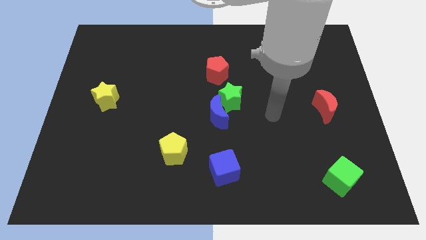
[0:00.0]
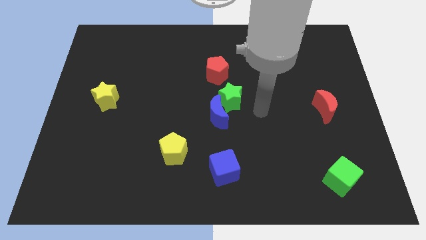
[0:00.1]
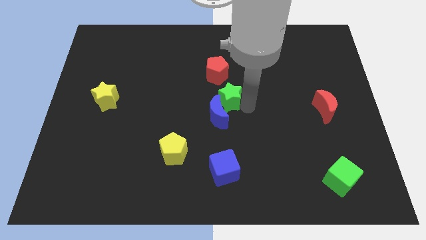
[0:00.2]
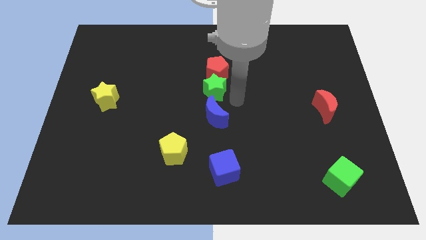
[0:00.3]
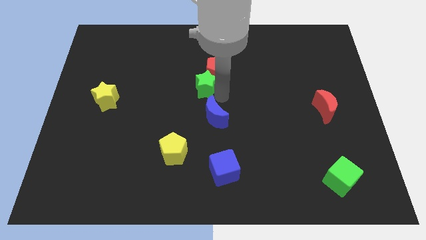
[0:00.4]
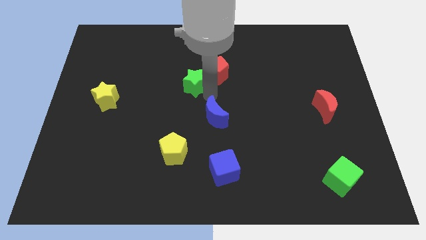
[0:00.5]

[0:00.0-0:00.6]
separate the blue moon from the green star

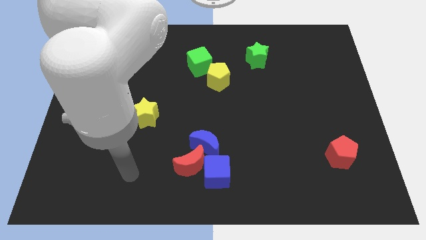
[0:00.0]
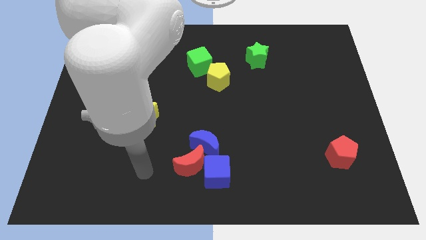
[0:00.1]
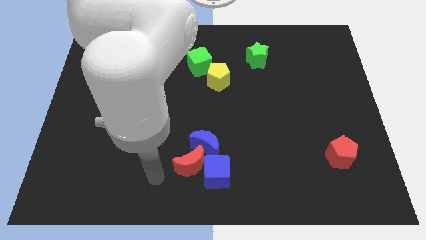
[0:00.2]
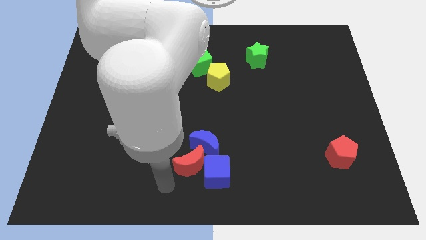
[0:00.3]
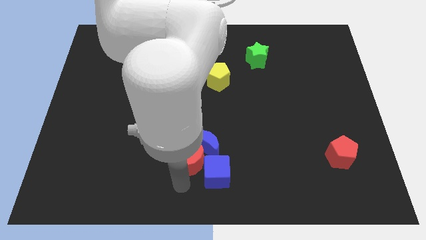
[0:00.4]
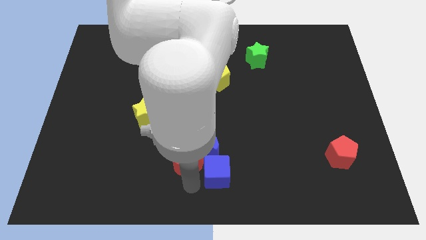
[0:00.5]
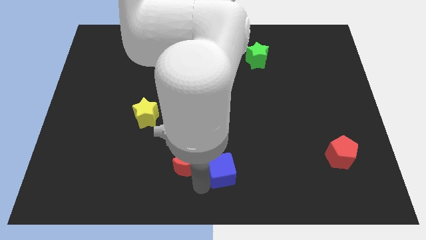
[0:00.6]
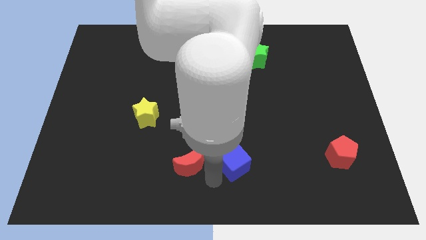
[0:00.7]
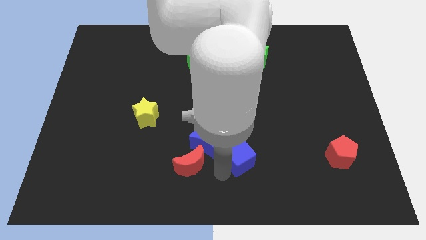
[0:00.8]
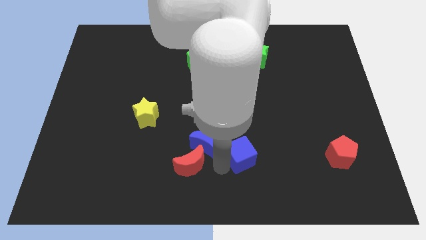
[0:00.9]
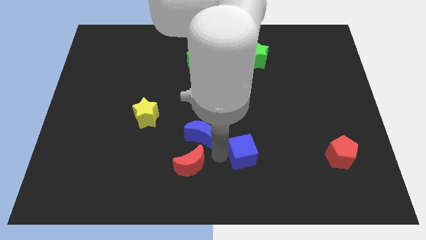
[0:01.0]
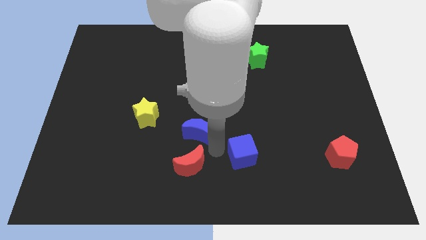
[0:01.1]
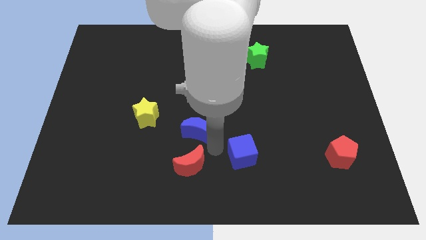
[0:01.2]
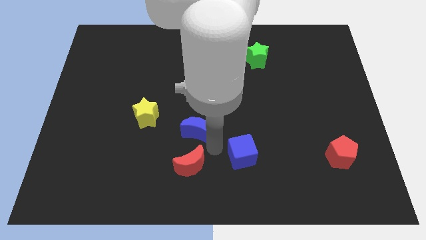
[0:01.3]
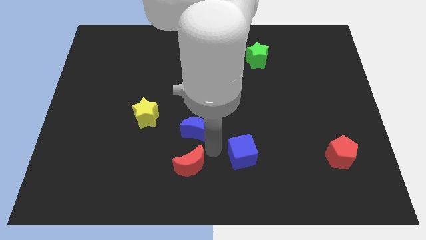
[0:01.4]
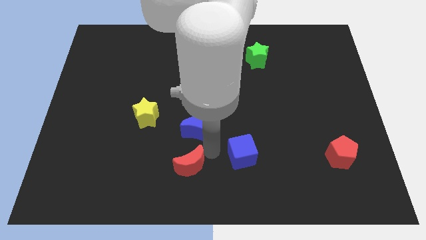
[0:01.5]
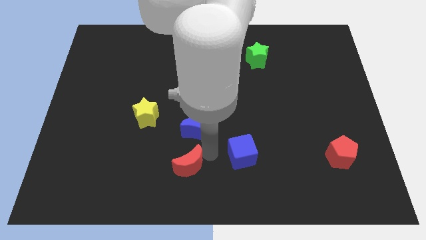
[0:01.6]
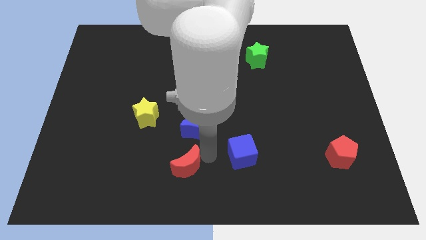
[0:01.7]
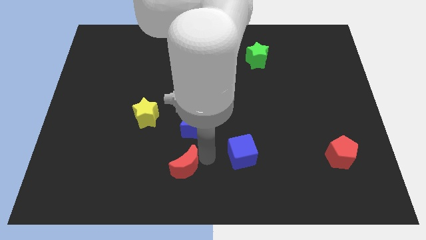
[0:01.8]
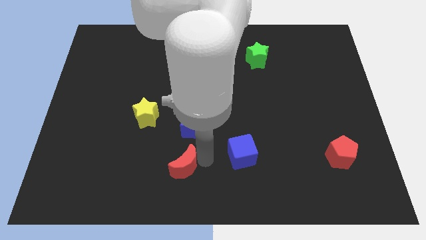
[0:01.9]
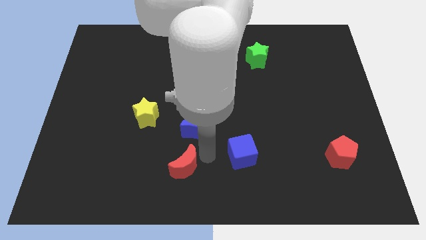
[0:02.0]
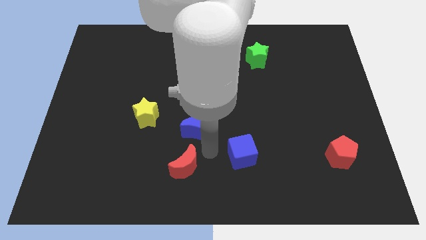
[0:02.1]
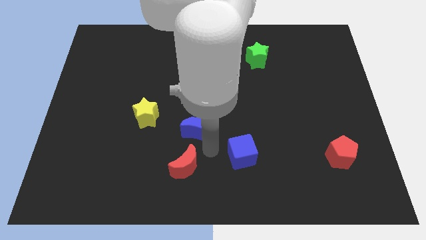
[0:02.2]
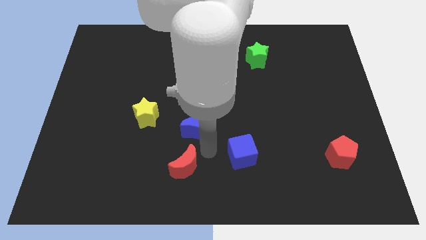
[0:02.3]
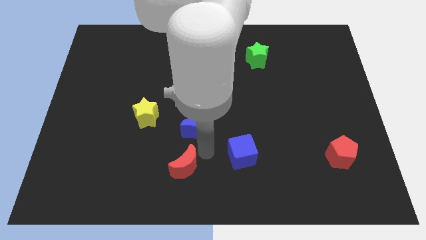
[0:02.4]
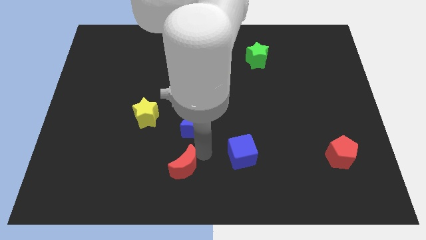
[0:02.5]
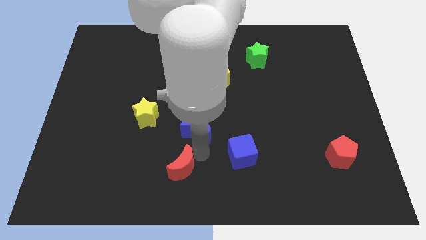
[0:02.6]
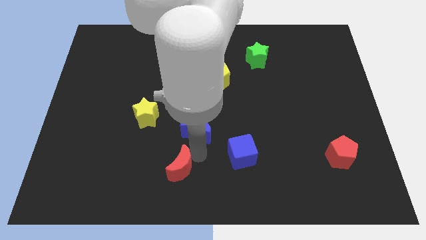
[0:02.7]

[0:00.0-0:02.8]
separate the red moon from the blue cube and blue moon

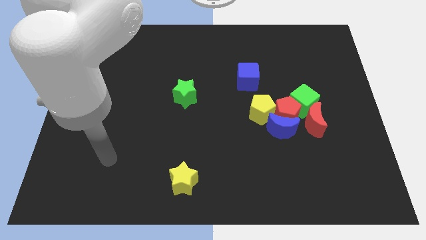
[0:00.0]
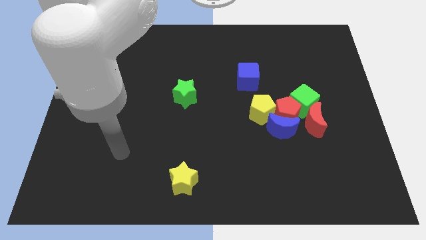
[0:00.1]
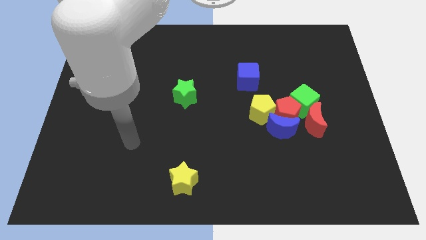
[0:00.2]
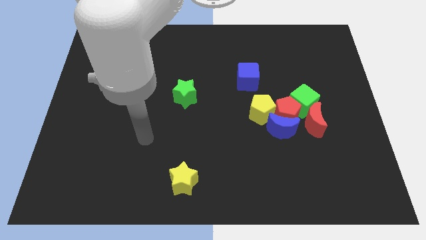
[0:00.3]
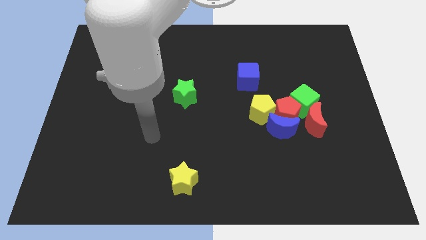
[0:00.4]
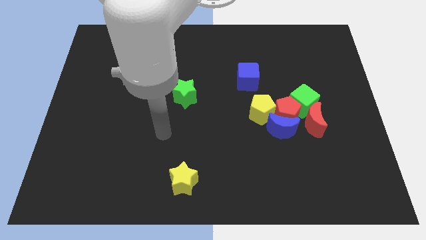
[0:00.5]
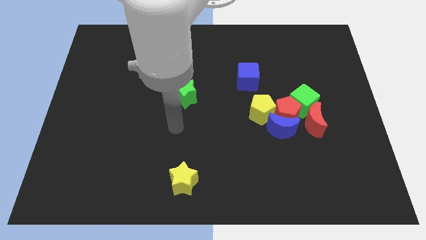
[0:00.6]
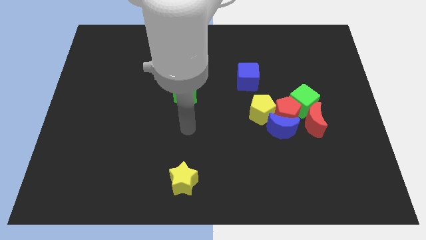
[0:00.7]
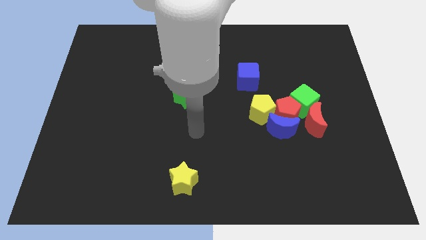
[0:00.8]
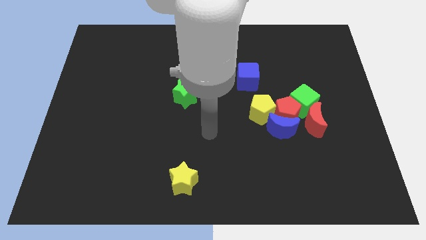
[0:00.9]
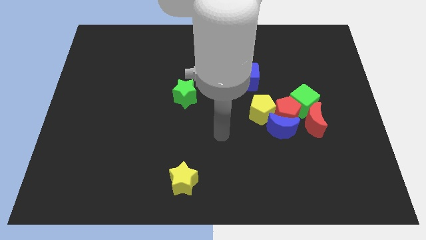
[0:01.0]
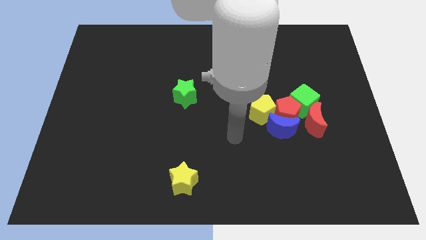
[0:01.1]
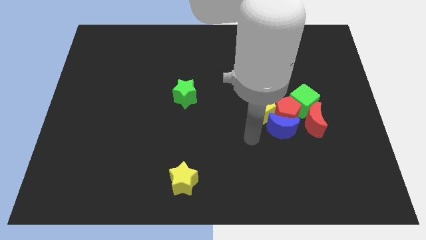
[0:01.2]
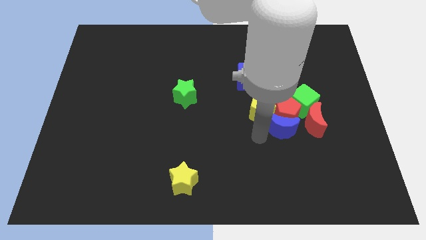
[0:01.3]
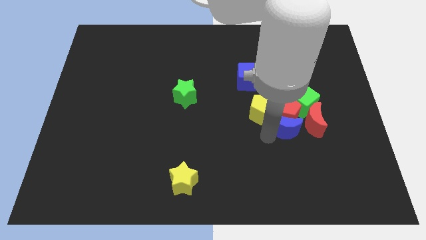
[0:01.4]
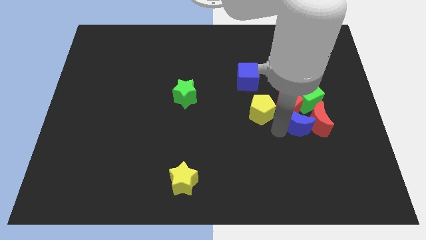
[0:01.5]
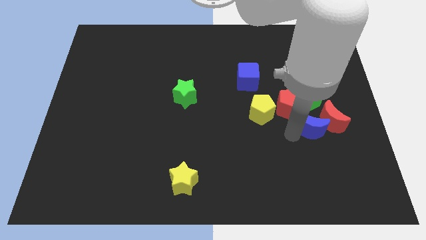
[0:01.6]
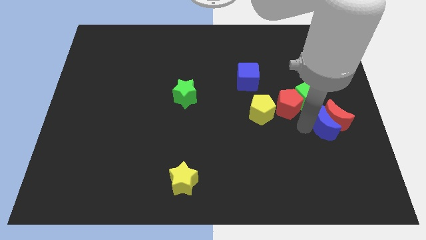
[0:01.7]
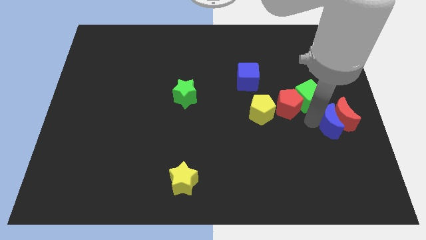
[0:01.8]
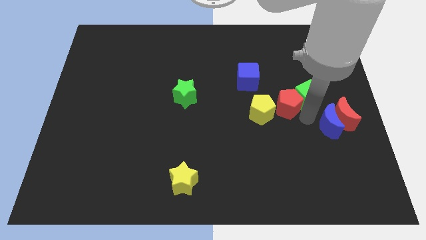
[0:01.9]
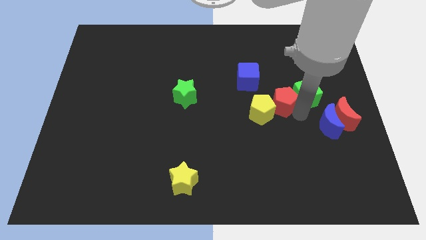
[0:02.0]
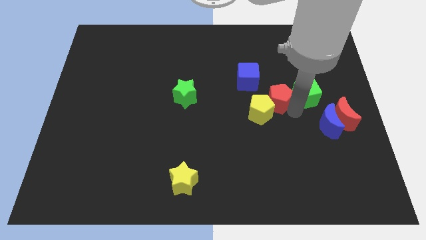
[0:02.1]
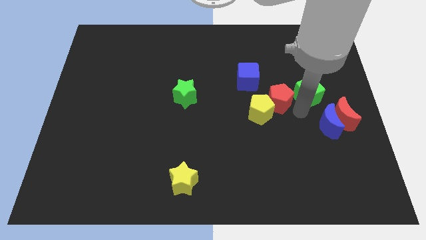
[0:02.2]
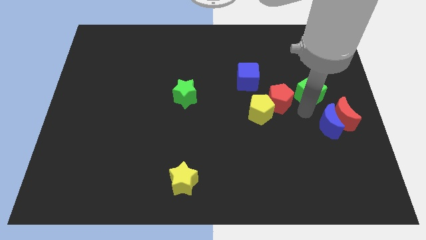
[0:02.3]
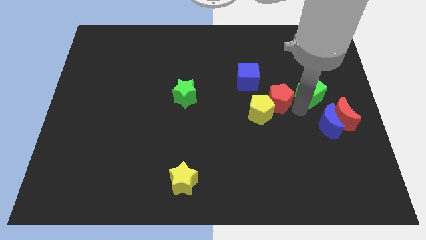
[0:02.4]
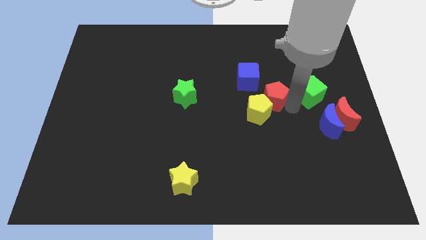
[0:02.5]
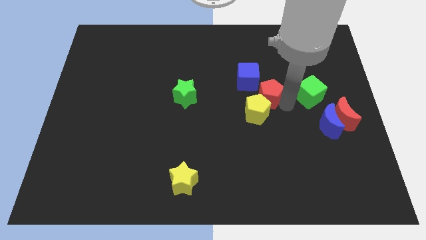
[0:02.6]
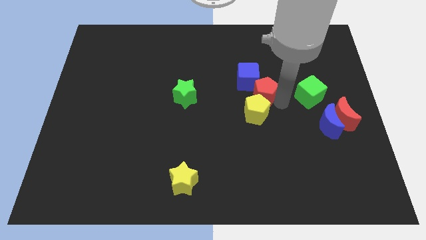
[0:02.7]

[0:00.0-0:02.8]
move the red pentagon away from the group of blocks

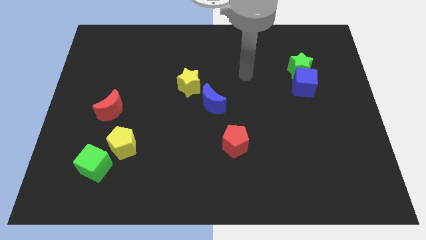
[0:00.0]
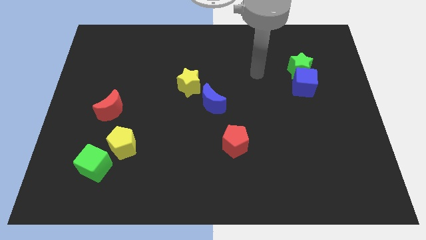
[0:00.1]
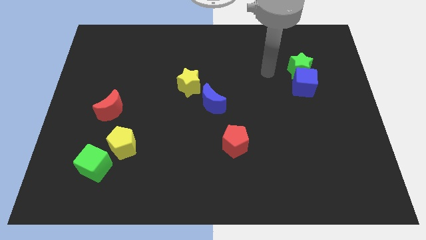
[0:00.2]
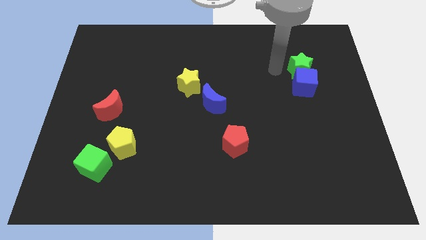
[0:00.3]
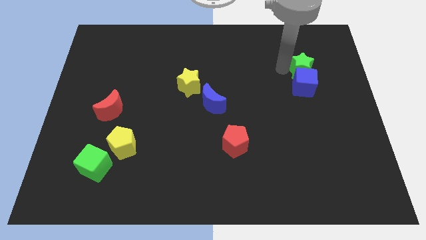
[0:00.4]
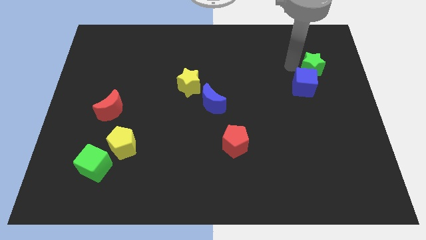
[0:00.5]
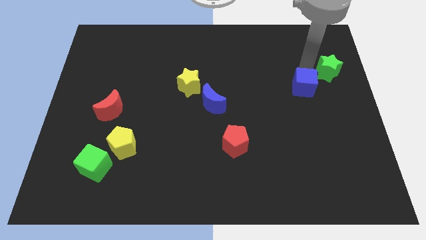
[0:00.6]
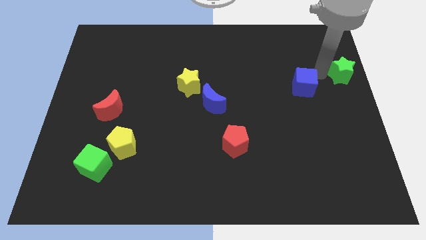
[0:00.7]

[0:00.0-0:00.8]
pull the blue cube apart from the green star

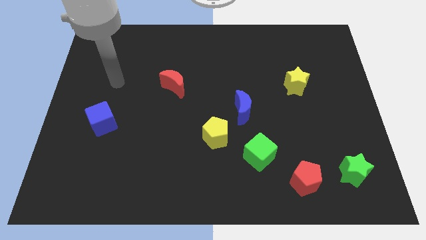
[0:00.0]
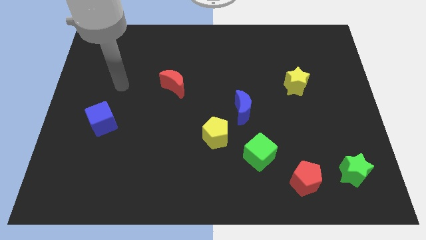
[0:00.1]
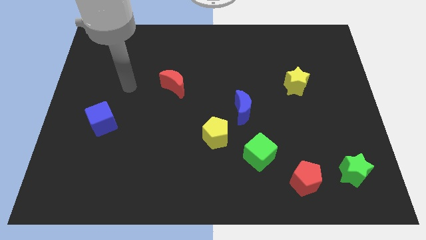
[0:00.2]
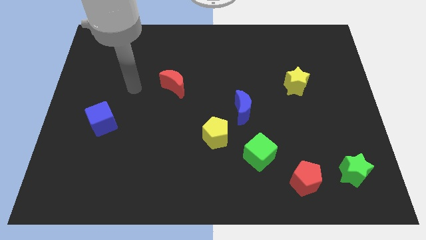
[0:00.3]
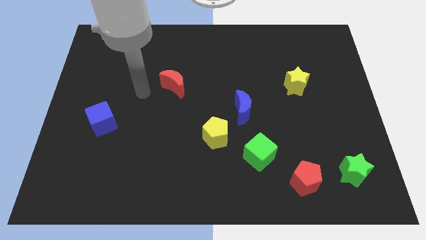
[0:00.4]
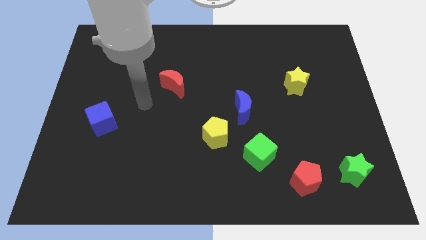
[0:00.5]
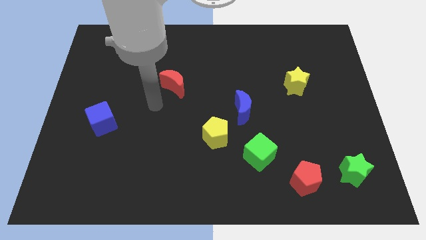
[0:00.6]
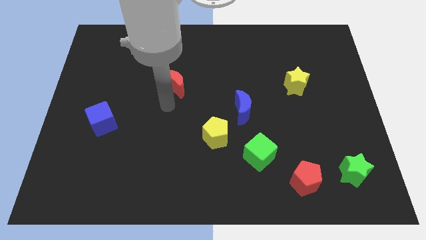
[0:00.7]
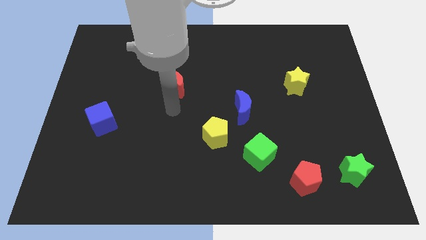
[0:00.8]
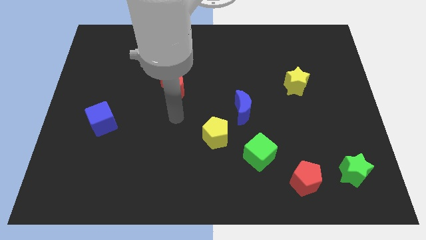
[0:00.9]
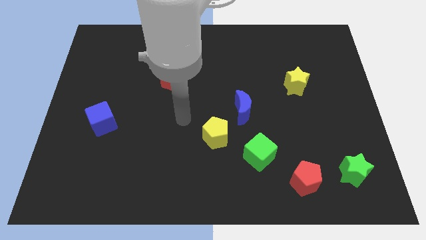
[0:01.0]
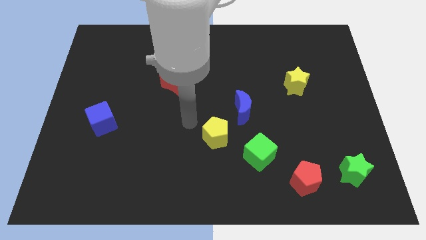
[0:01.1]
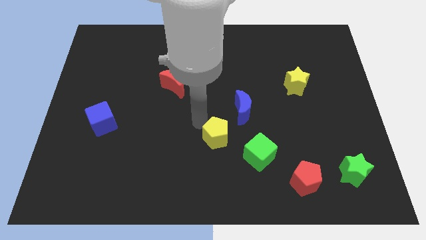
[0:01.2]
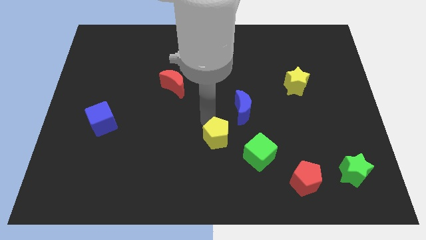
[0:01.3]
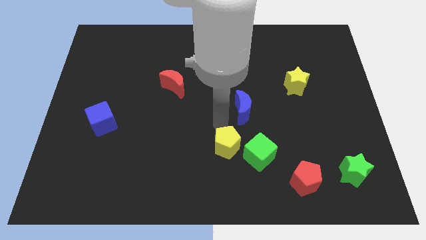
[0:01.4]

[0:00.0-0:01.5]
pull the blue moon apart from the yellow pentagon

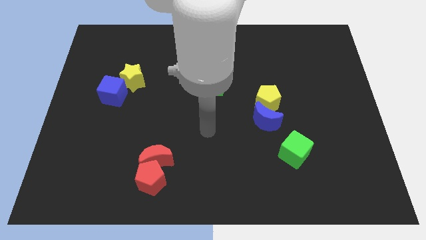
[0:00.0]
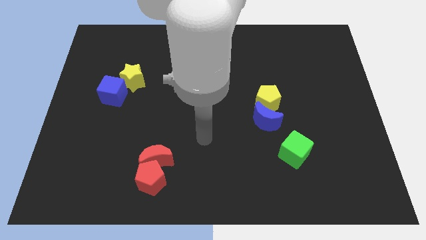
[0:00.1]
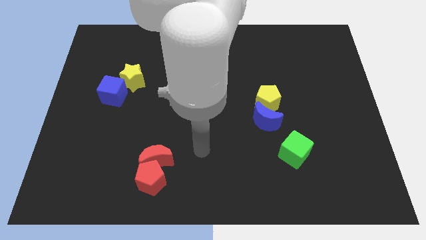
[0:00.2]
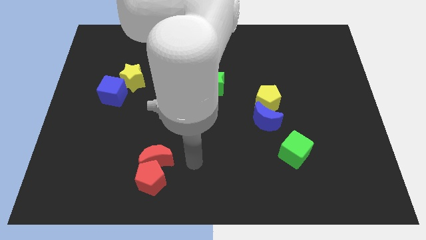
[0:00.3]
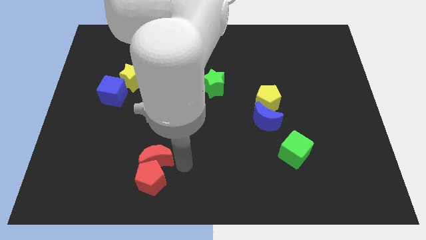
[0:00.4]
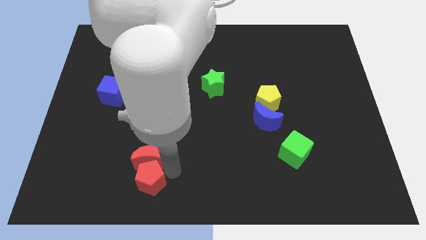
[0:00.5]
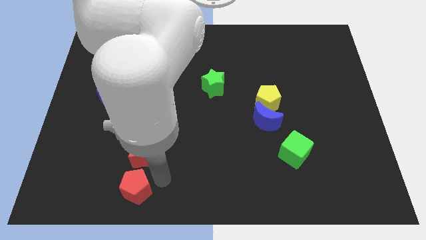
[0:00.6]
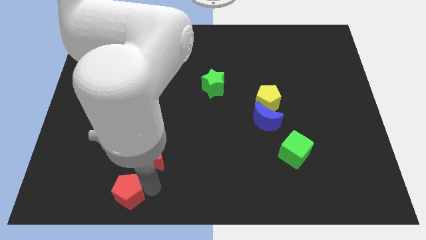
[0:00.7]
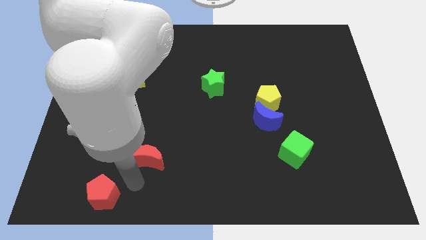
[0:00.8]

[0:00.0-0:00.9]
pull the red moon apart from the red pentagon
